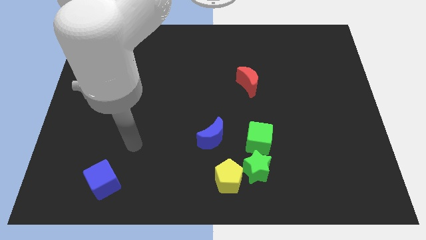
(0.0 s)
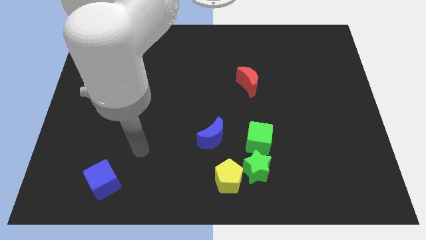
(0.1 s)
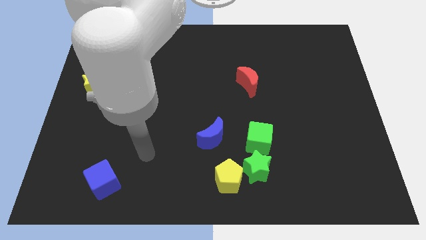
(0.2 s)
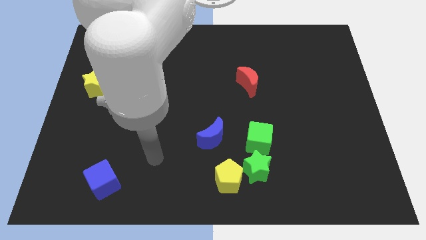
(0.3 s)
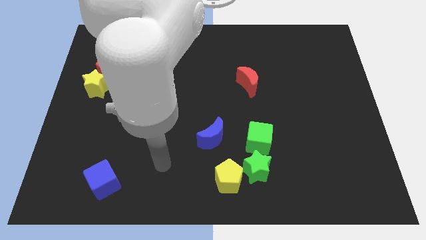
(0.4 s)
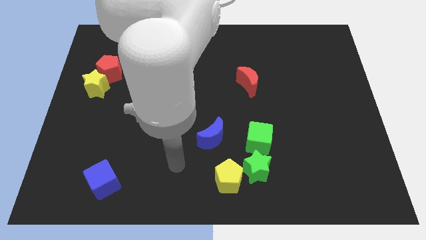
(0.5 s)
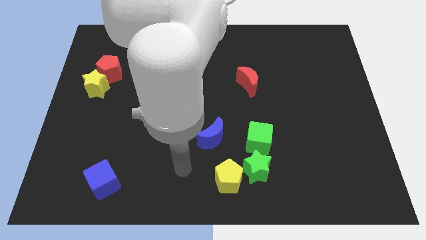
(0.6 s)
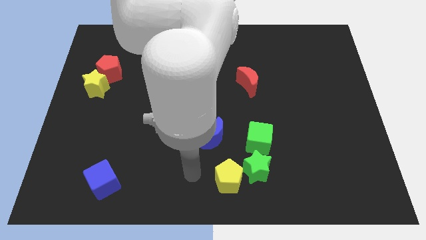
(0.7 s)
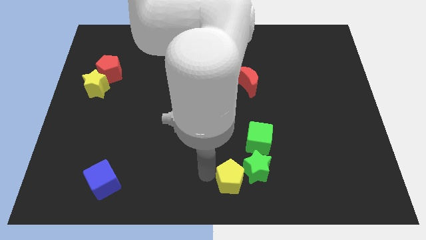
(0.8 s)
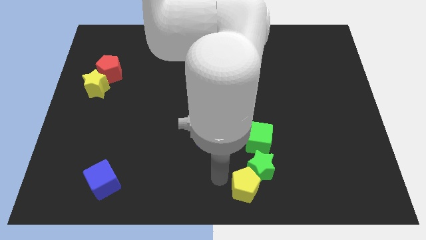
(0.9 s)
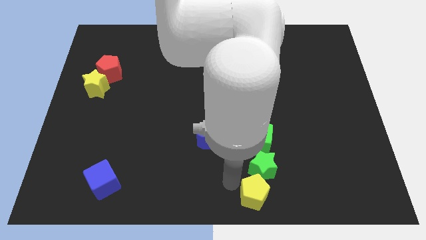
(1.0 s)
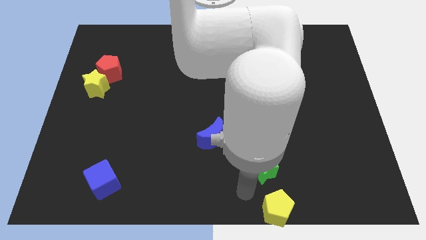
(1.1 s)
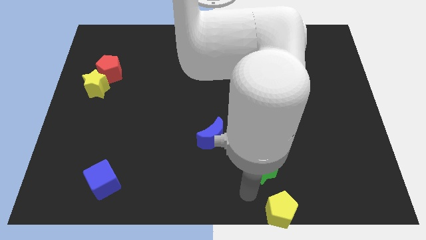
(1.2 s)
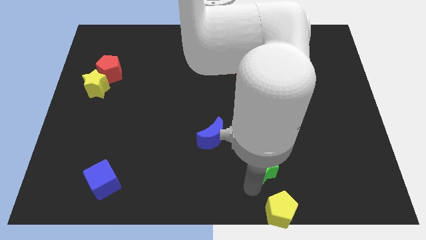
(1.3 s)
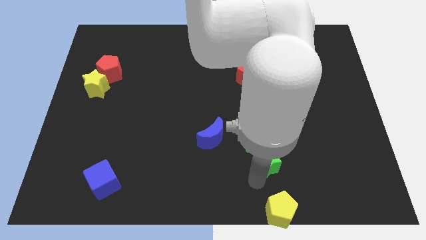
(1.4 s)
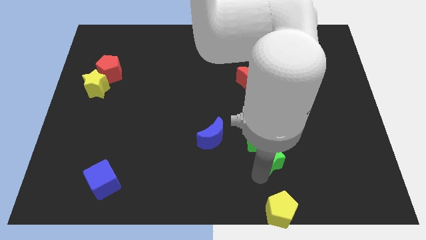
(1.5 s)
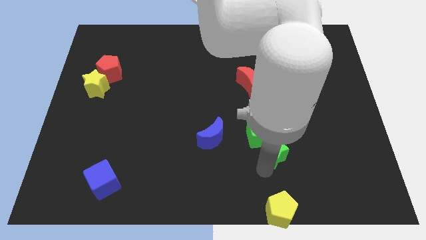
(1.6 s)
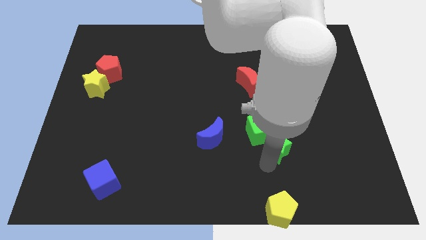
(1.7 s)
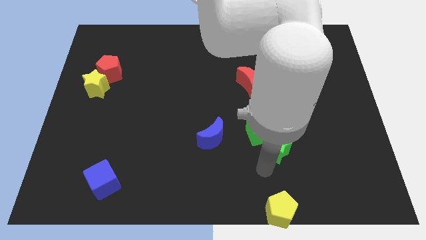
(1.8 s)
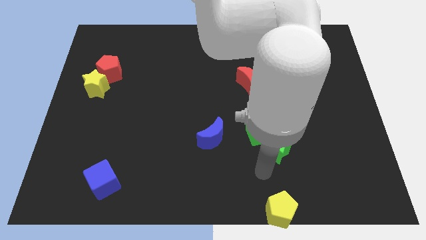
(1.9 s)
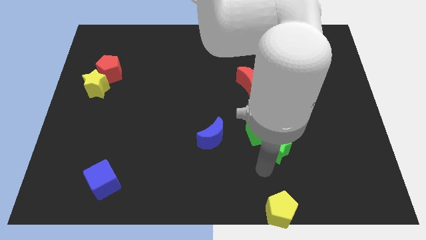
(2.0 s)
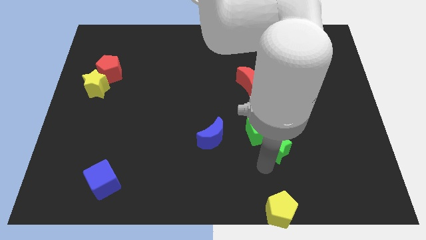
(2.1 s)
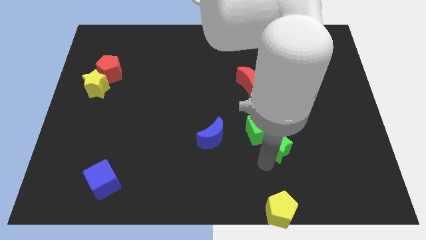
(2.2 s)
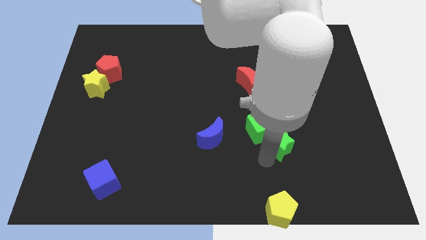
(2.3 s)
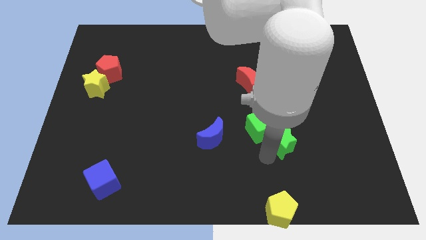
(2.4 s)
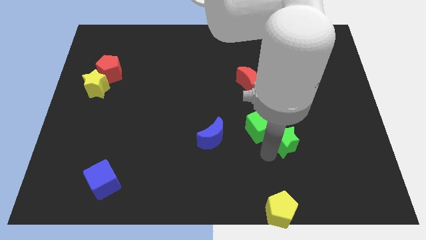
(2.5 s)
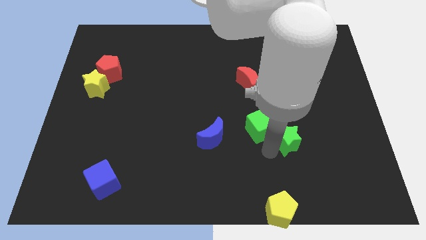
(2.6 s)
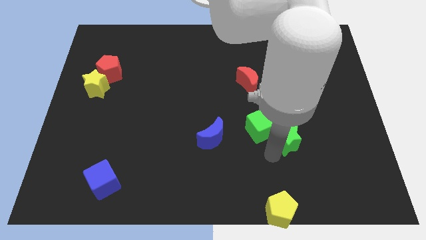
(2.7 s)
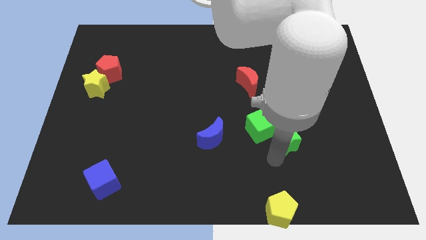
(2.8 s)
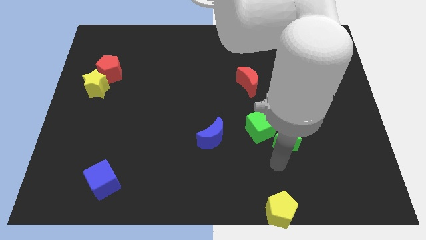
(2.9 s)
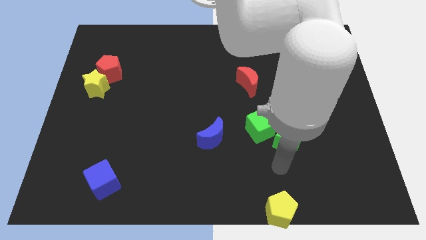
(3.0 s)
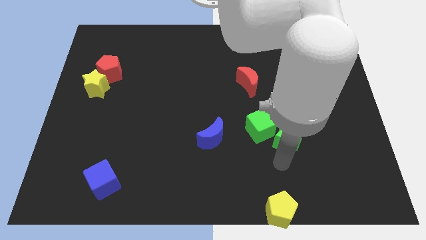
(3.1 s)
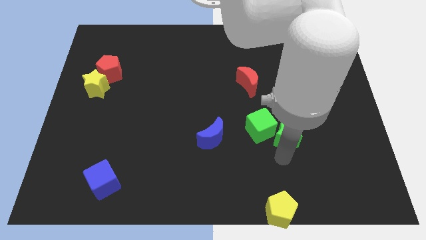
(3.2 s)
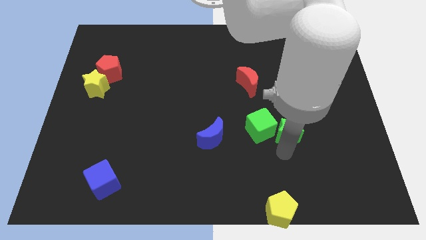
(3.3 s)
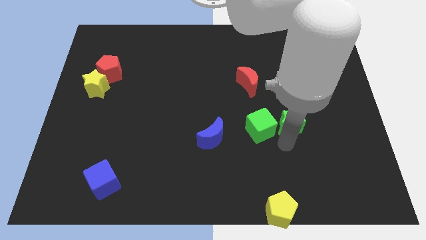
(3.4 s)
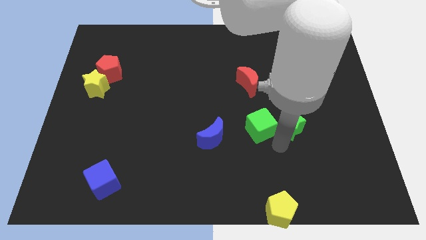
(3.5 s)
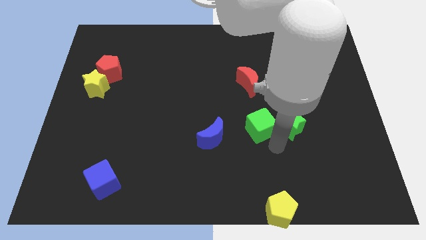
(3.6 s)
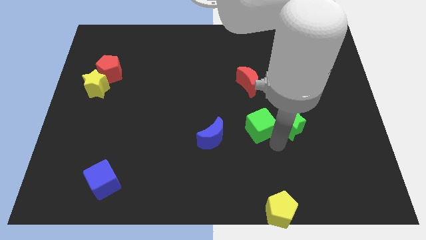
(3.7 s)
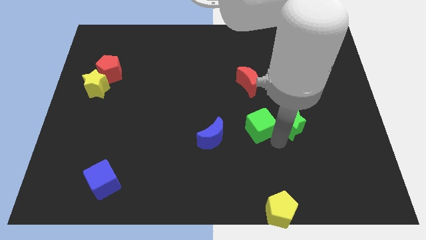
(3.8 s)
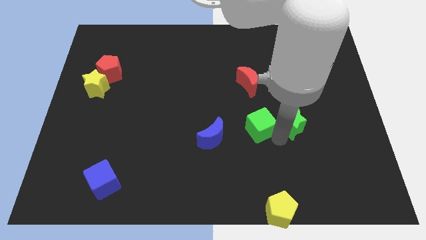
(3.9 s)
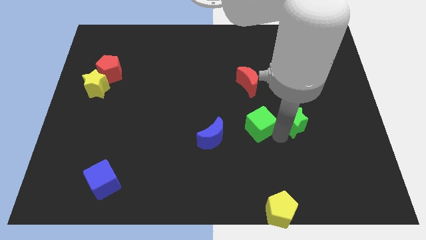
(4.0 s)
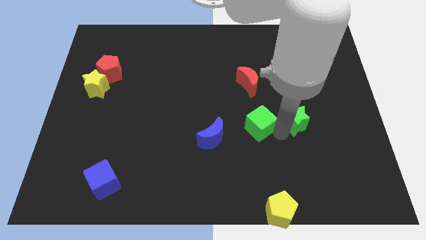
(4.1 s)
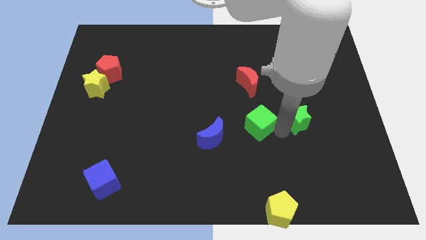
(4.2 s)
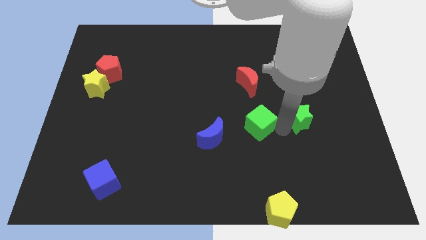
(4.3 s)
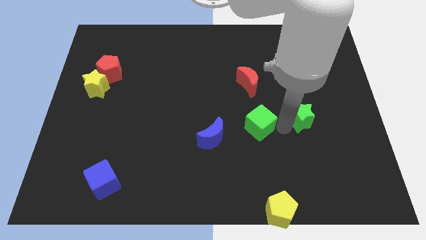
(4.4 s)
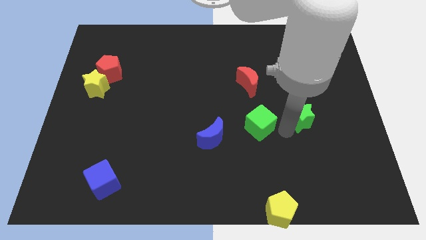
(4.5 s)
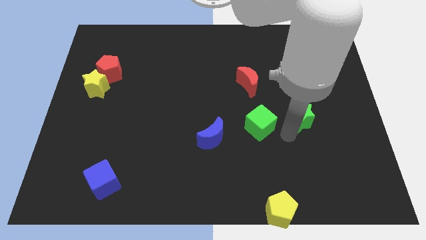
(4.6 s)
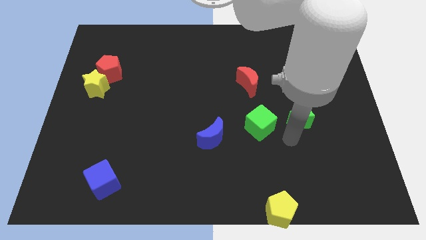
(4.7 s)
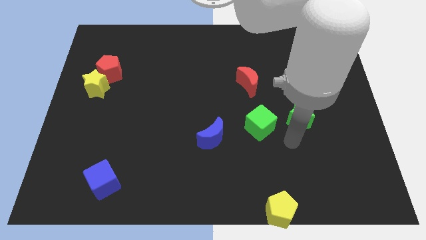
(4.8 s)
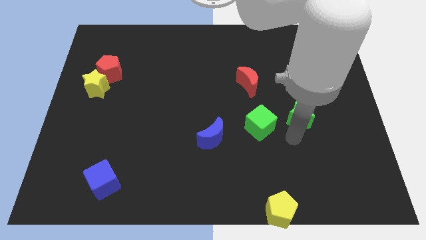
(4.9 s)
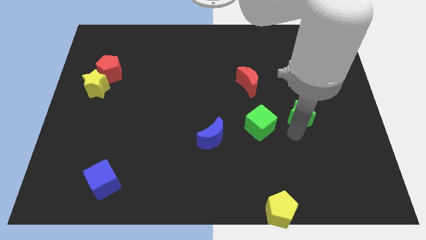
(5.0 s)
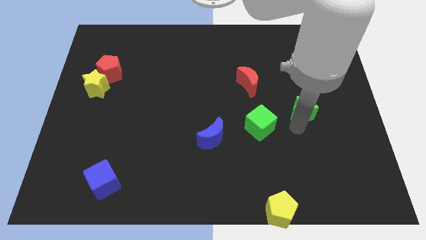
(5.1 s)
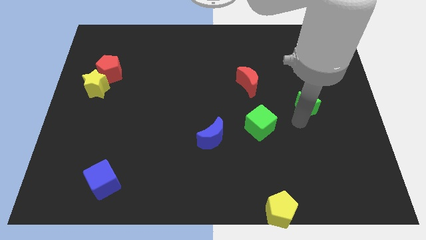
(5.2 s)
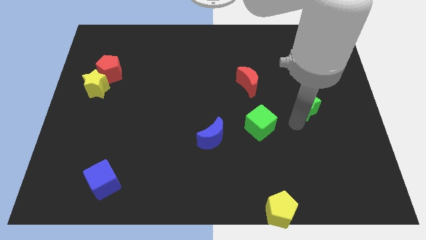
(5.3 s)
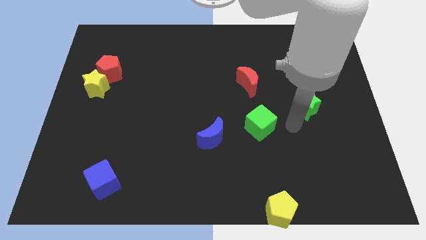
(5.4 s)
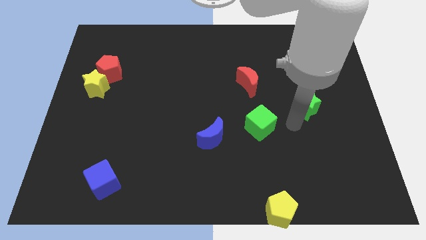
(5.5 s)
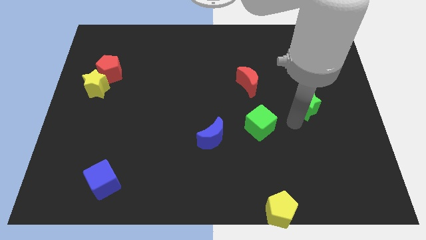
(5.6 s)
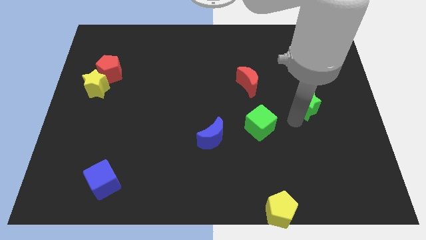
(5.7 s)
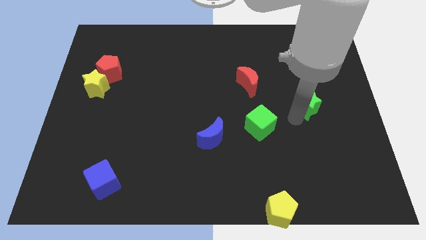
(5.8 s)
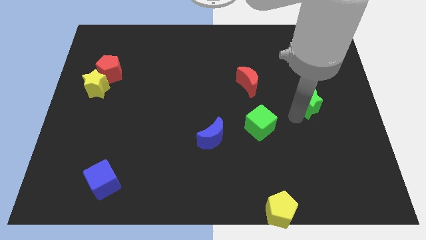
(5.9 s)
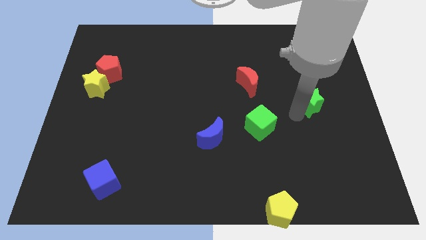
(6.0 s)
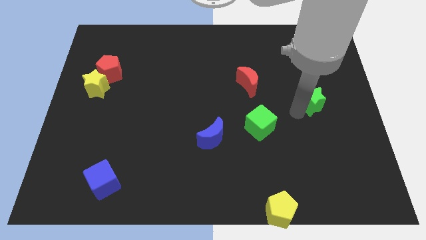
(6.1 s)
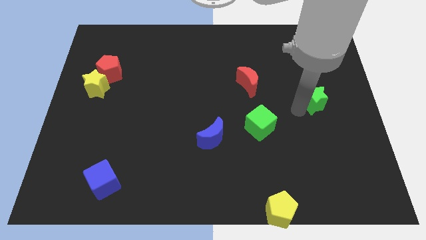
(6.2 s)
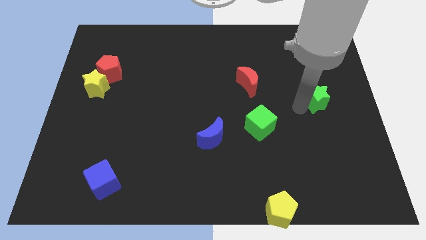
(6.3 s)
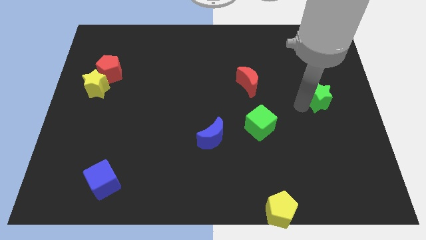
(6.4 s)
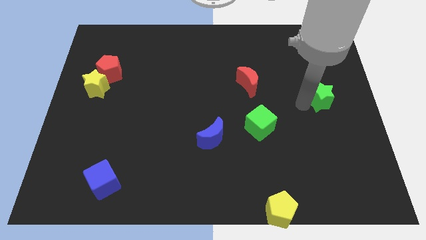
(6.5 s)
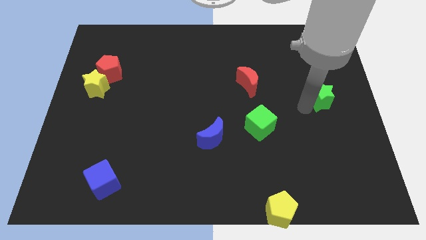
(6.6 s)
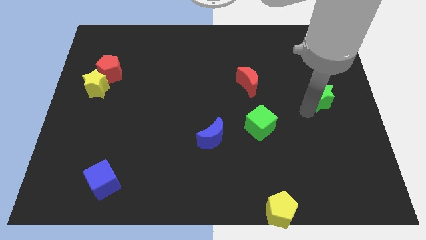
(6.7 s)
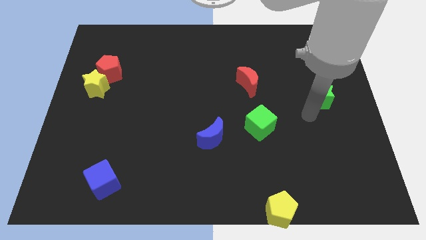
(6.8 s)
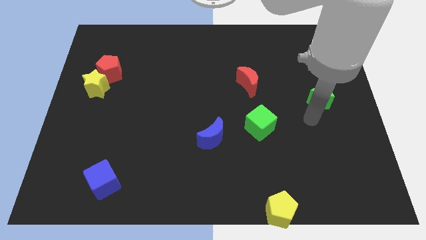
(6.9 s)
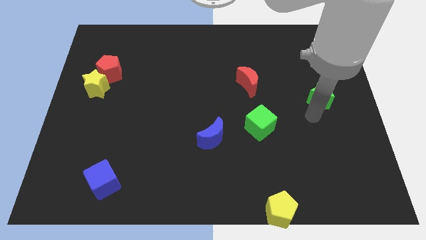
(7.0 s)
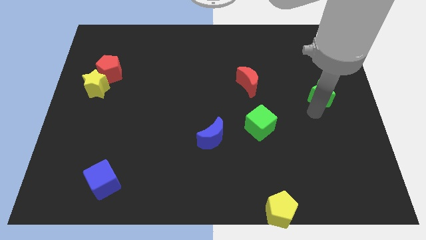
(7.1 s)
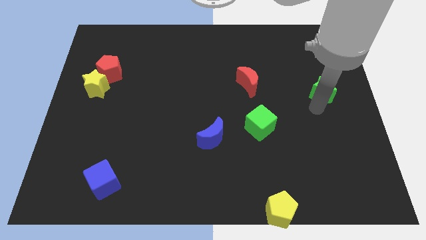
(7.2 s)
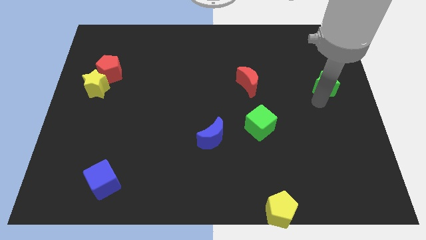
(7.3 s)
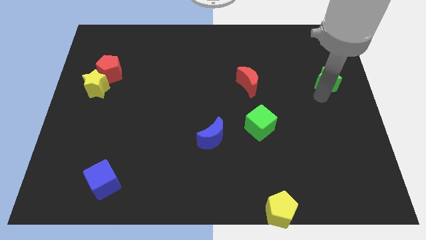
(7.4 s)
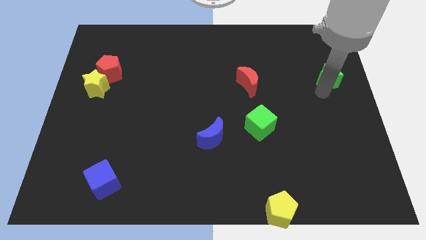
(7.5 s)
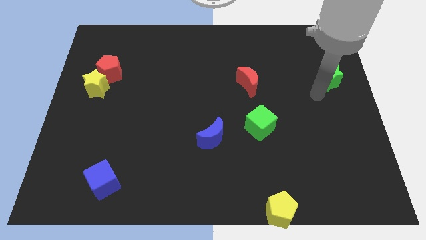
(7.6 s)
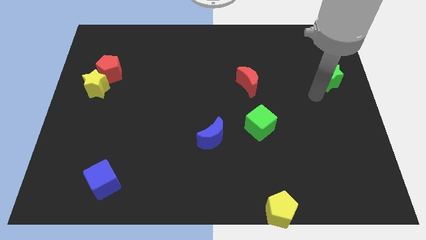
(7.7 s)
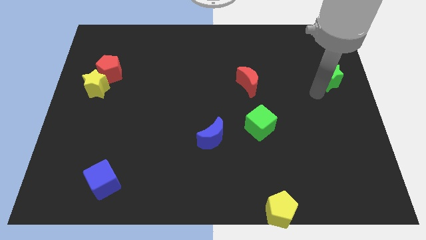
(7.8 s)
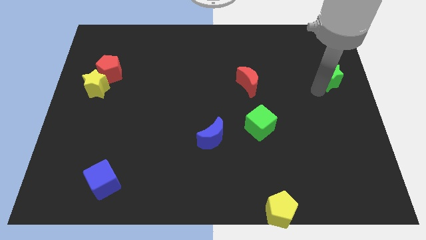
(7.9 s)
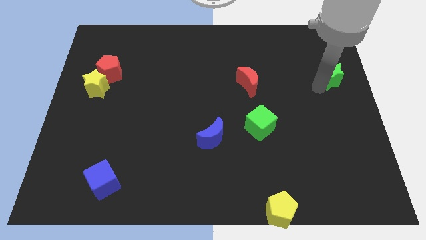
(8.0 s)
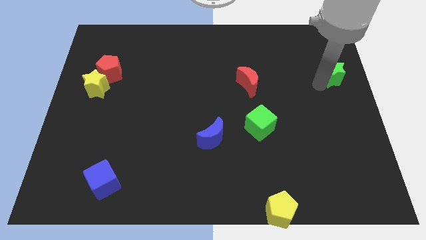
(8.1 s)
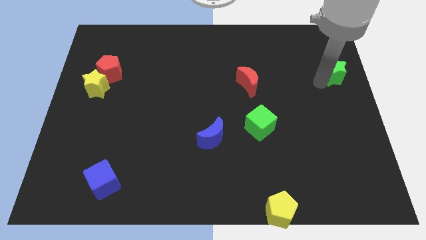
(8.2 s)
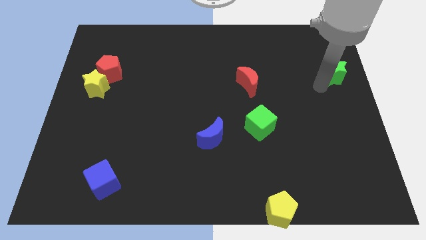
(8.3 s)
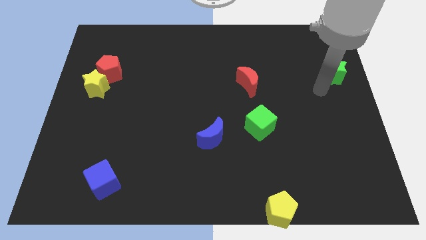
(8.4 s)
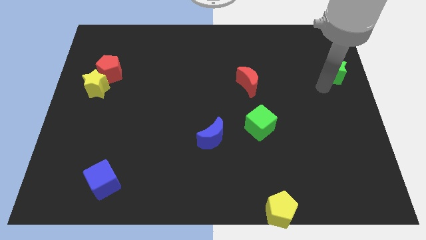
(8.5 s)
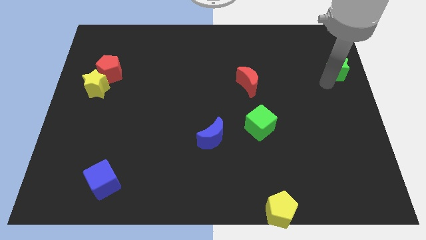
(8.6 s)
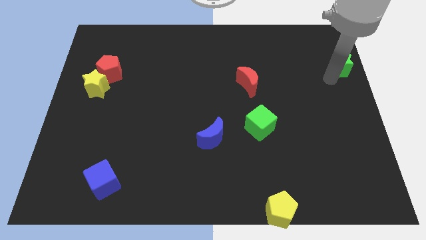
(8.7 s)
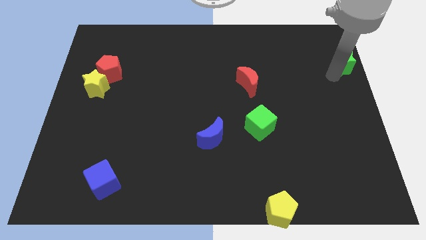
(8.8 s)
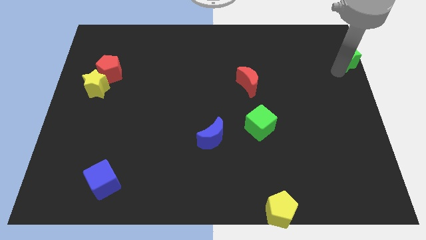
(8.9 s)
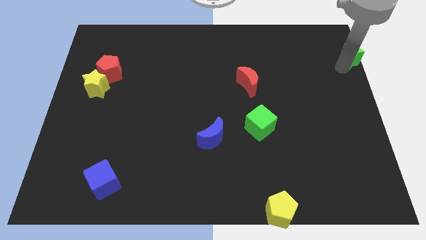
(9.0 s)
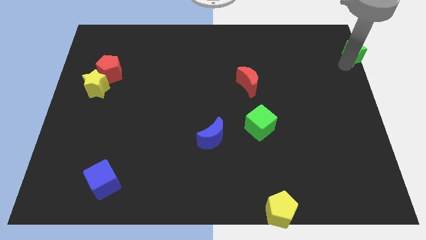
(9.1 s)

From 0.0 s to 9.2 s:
move the green star to the top right of the board
